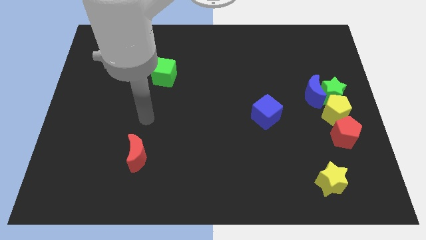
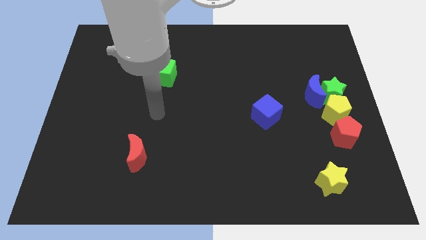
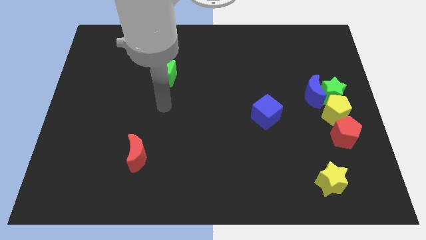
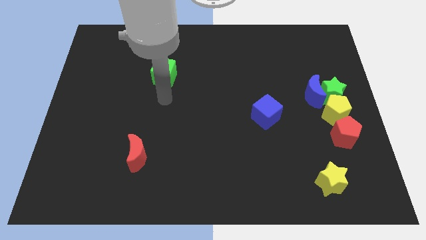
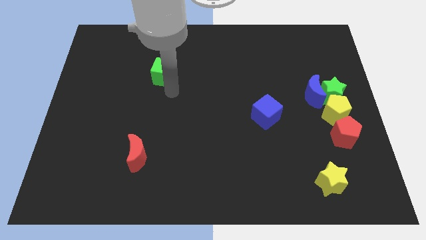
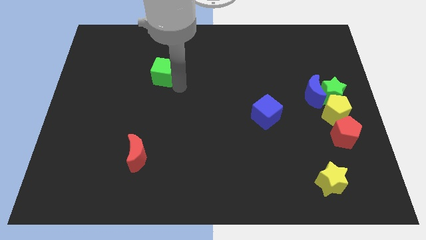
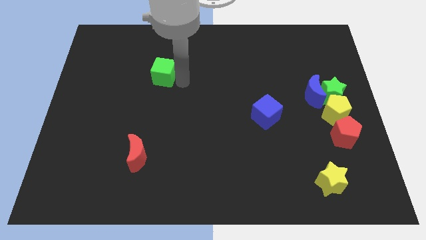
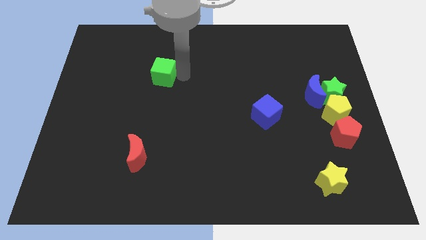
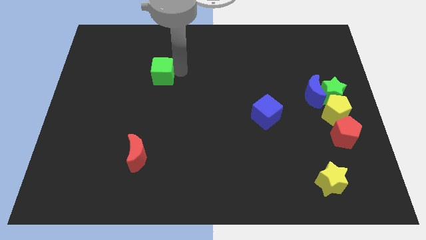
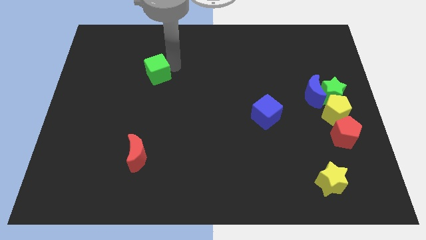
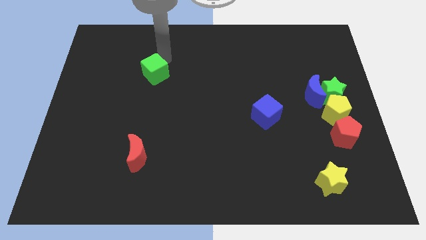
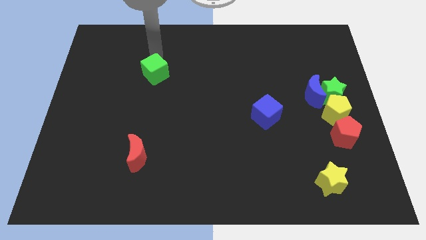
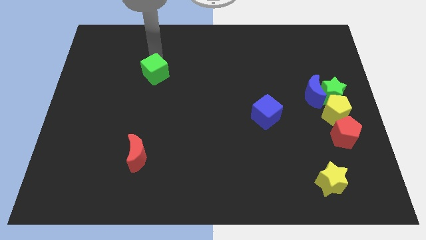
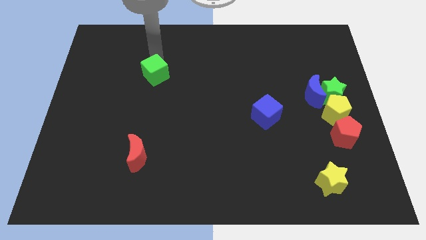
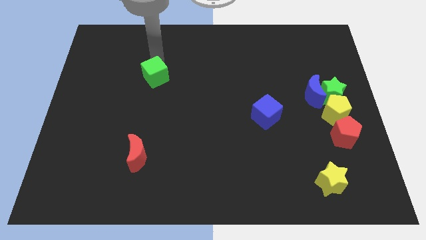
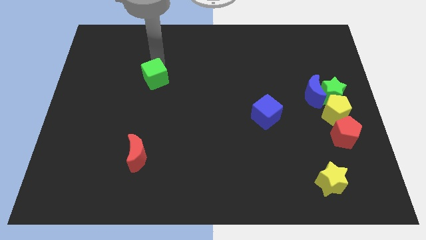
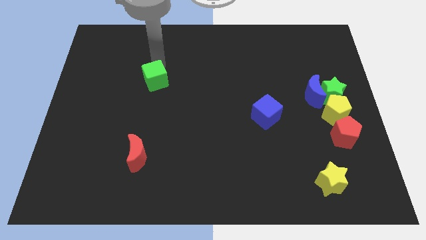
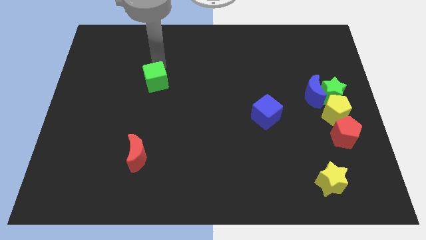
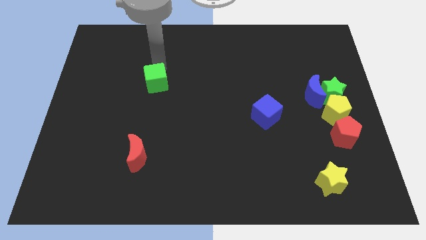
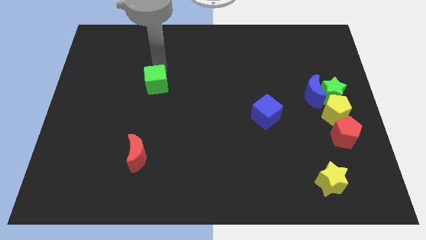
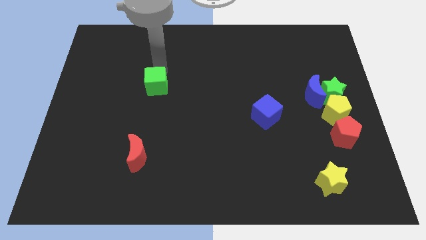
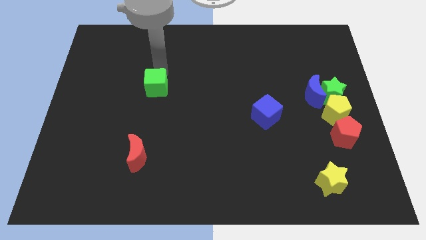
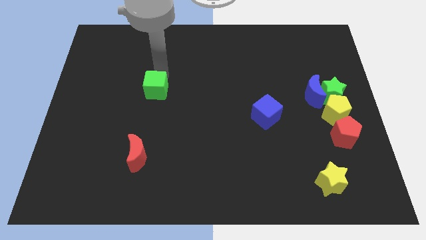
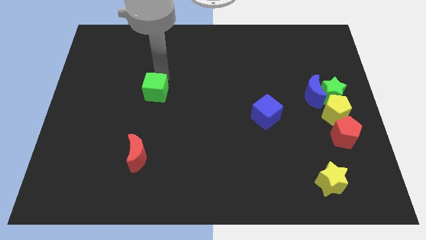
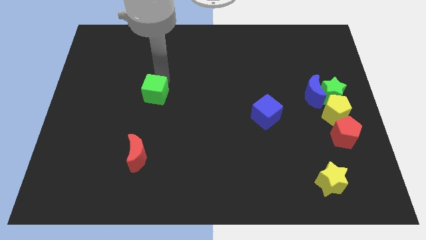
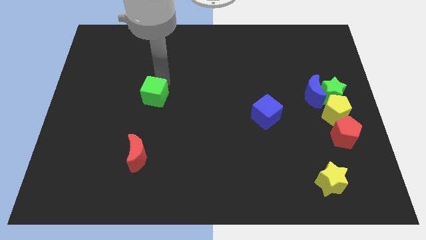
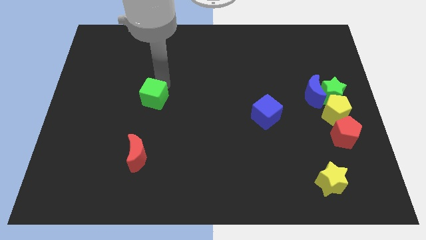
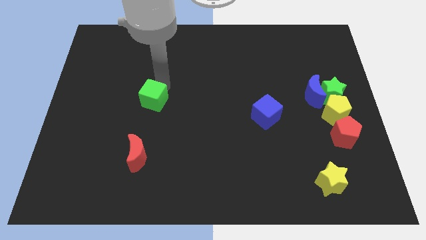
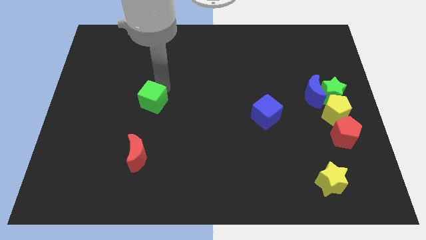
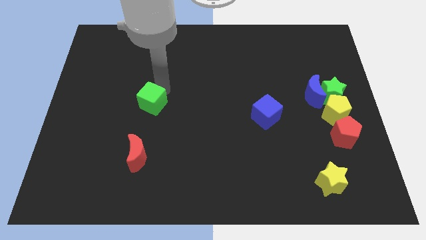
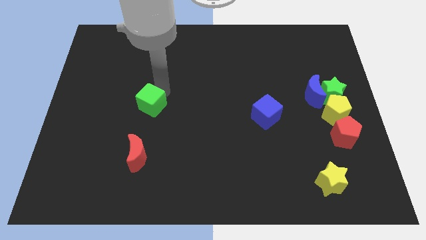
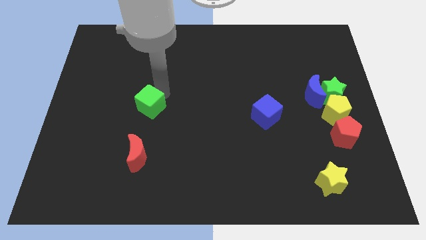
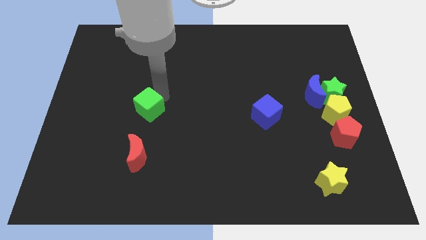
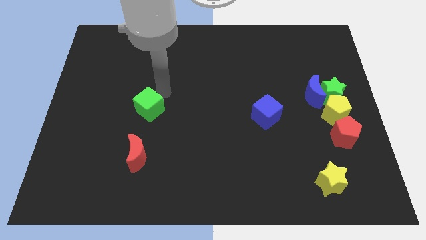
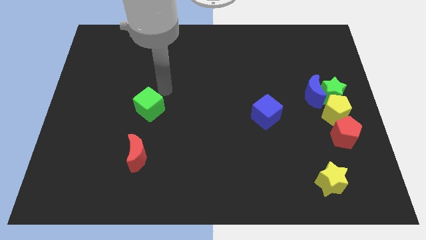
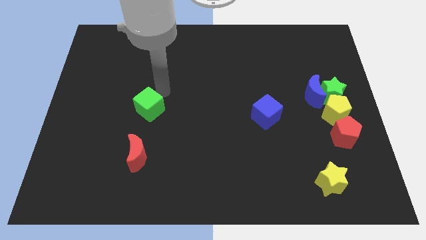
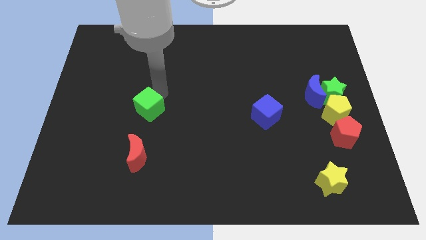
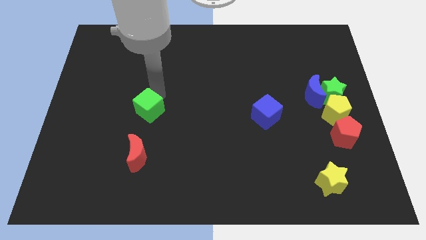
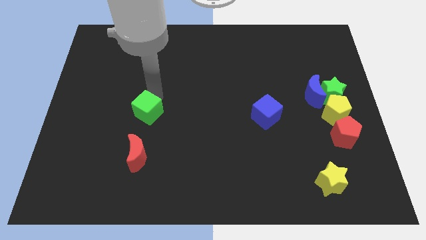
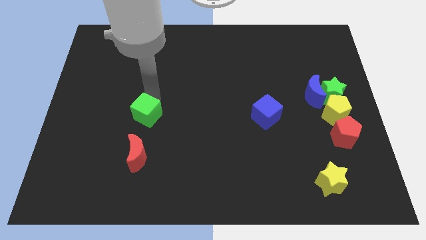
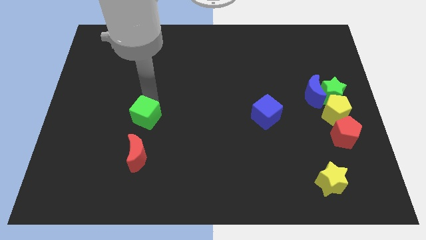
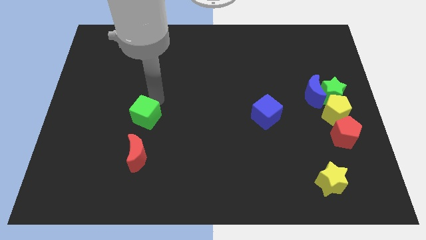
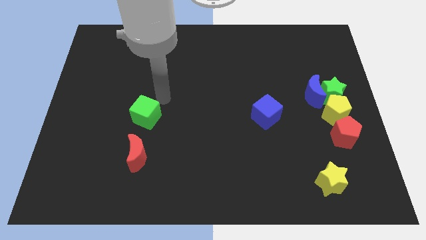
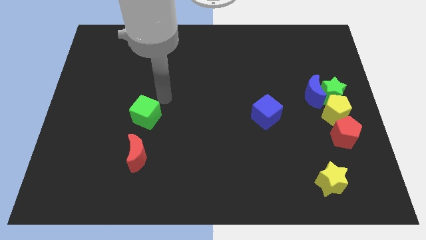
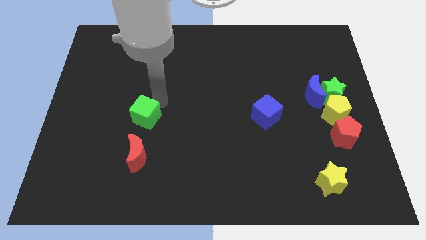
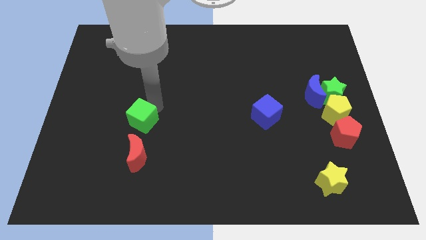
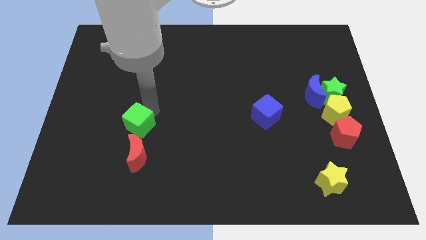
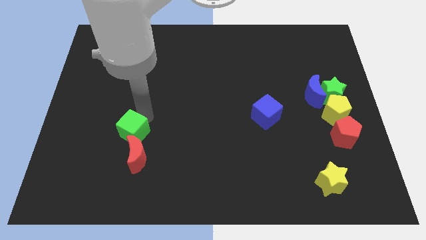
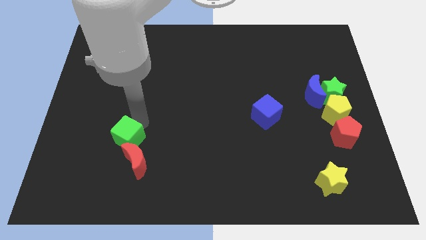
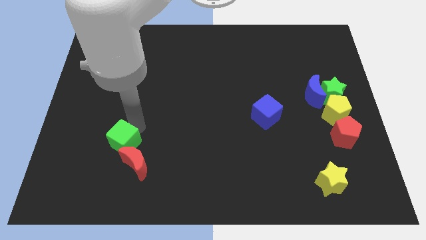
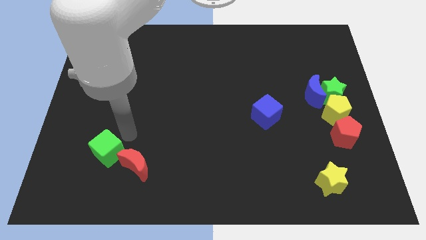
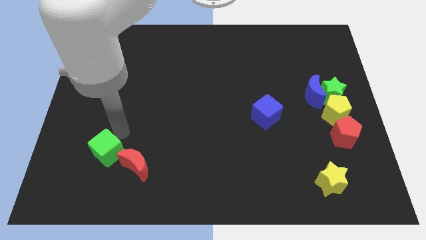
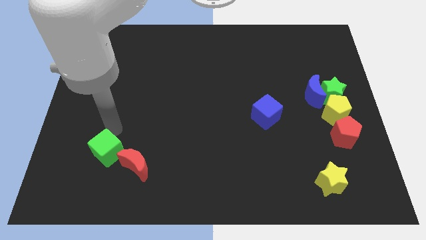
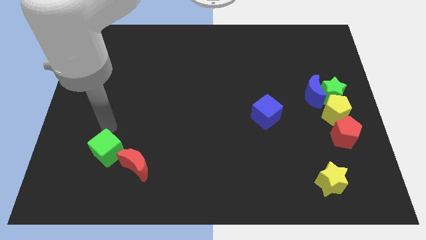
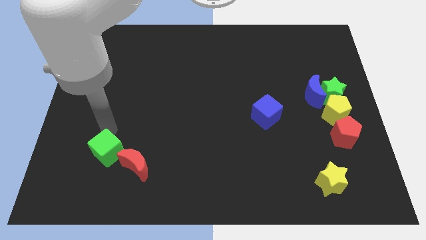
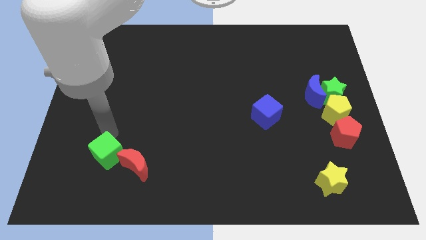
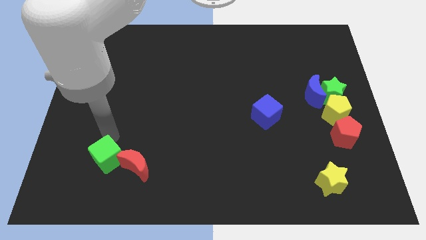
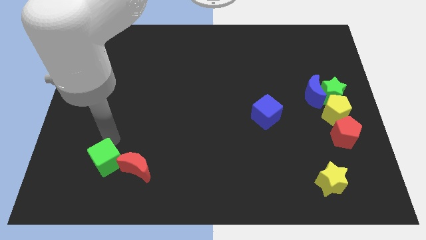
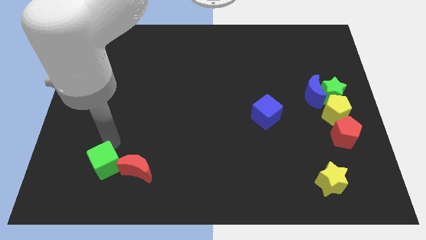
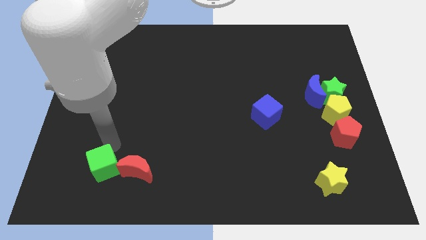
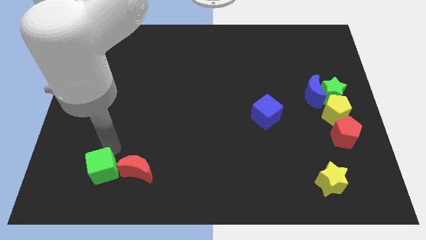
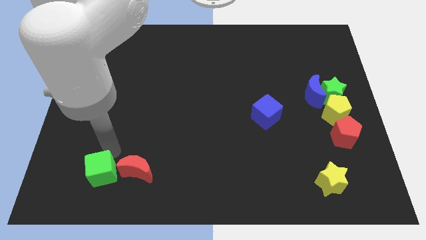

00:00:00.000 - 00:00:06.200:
put the green cube to the bottom left side of the red moon

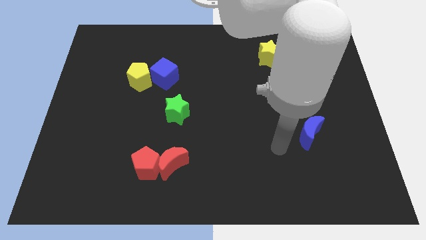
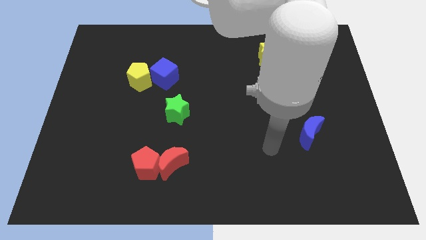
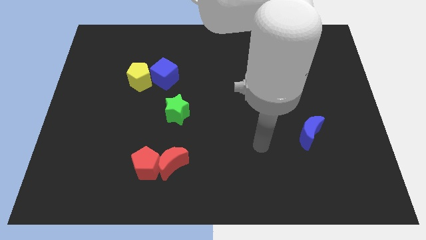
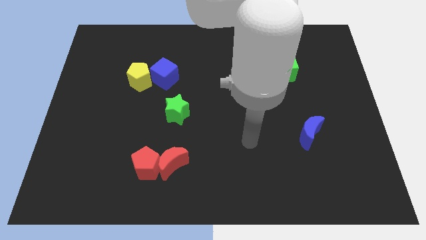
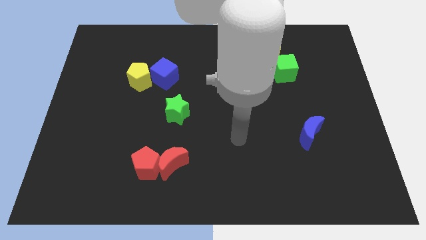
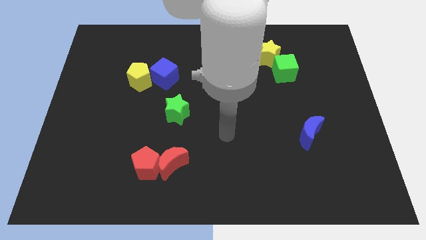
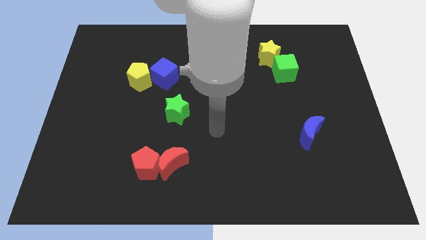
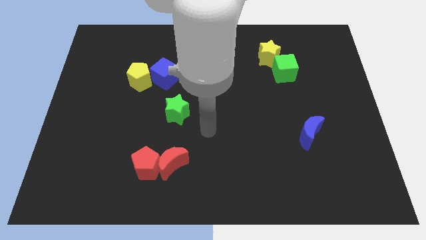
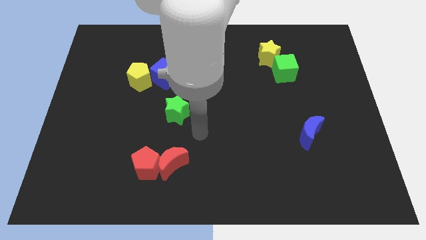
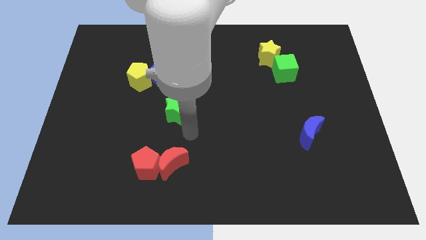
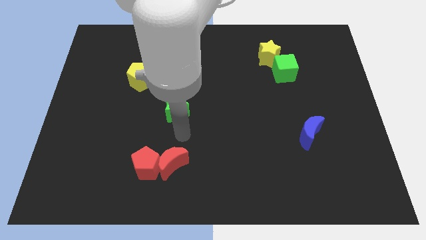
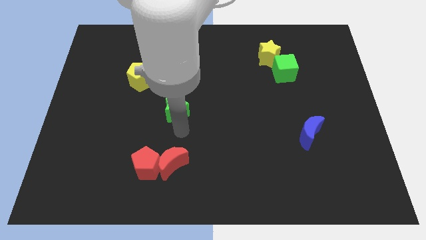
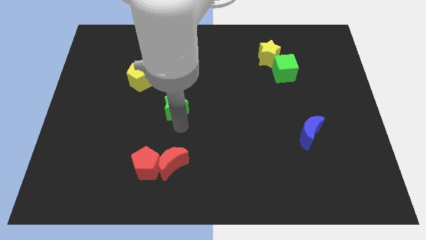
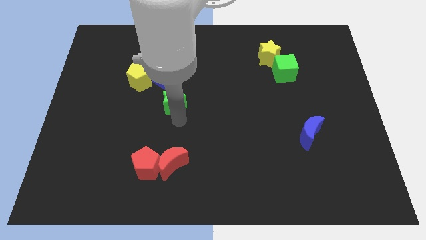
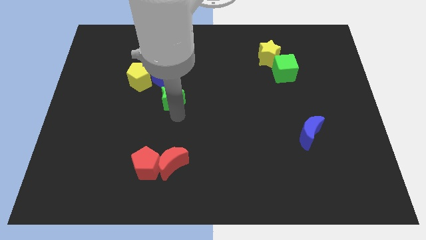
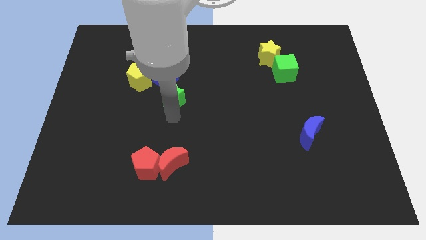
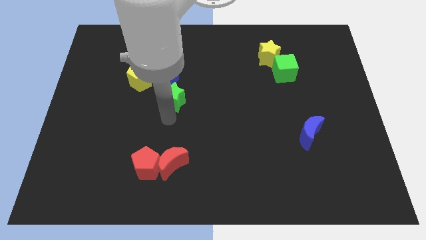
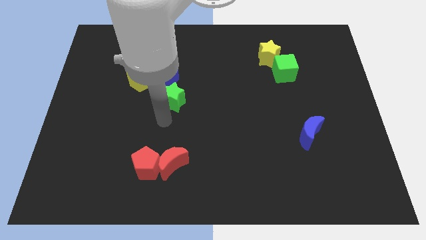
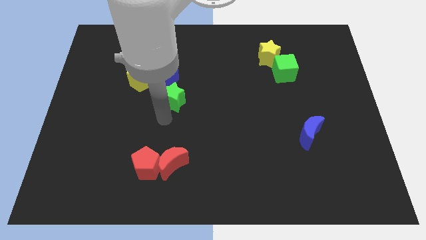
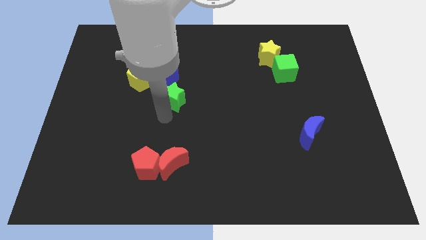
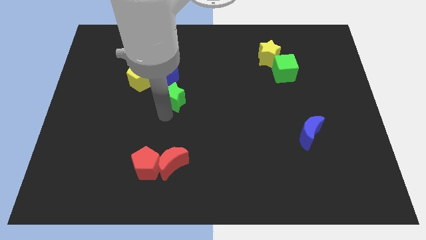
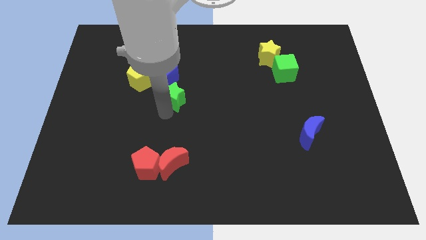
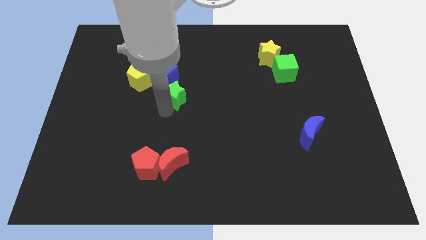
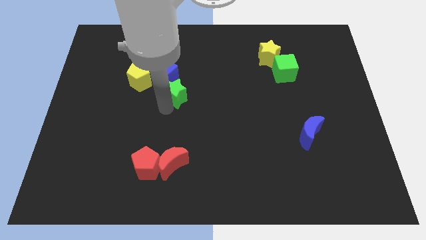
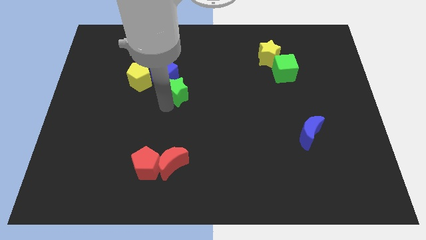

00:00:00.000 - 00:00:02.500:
move the green star to the right of the yellow pentagon
